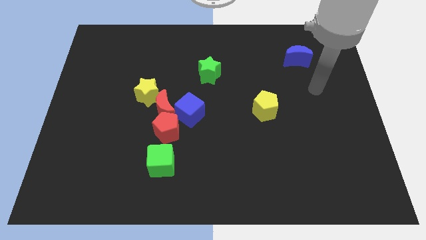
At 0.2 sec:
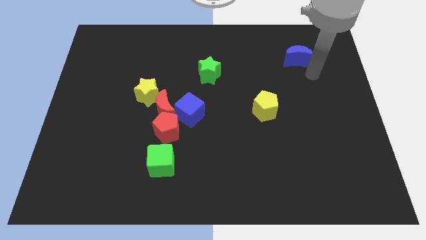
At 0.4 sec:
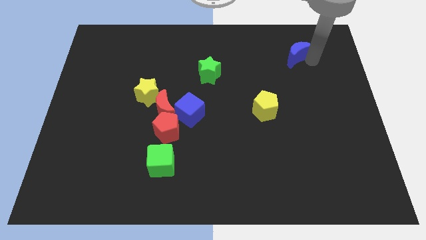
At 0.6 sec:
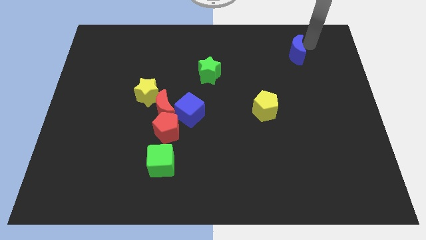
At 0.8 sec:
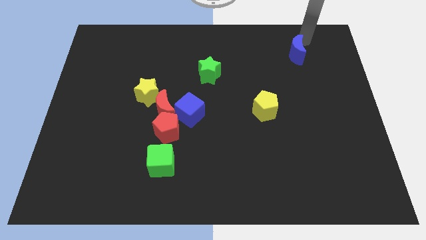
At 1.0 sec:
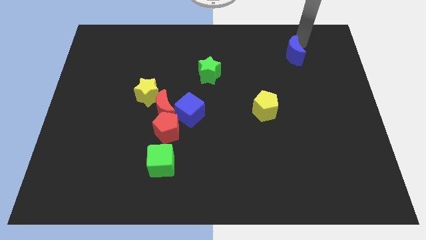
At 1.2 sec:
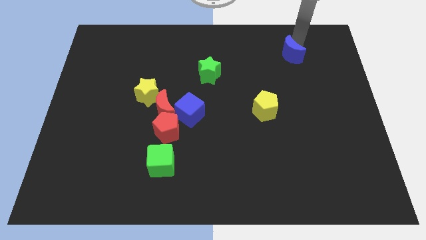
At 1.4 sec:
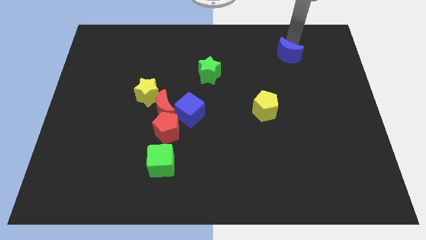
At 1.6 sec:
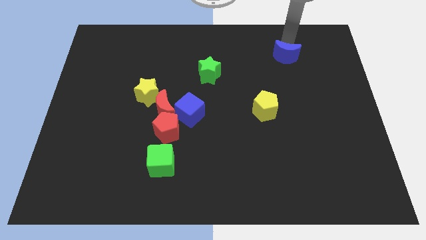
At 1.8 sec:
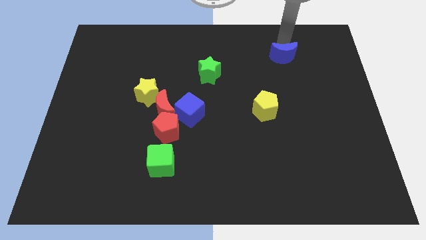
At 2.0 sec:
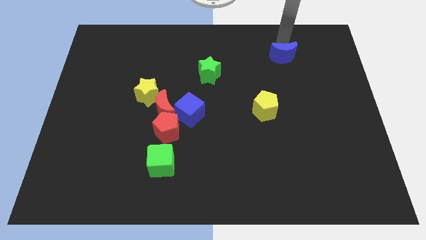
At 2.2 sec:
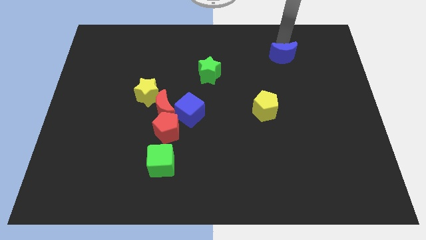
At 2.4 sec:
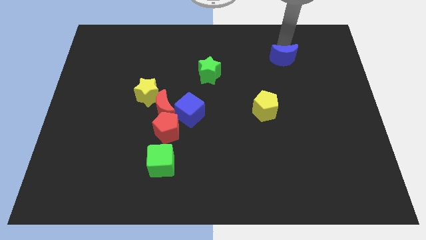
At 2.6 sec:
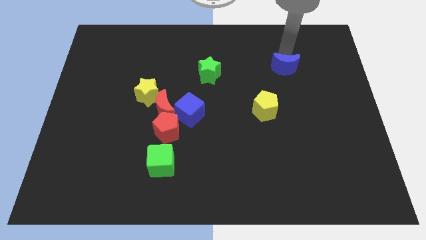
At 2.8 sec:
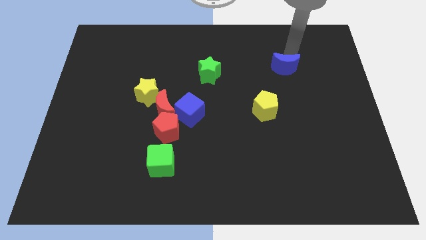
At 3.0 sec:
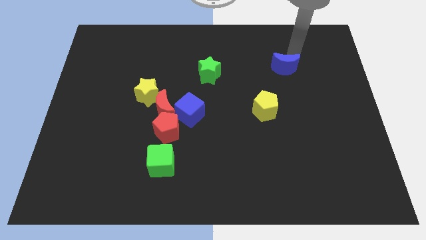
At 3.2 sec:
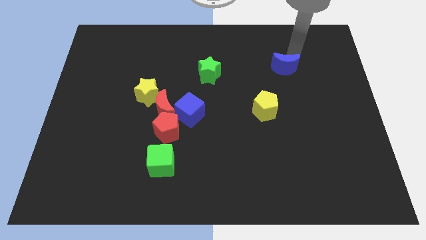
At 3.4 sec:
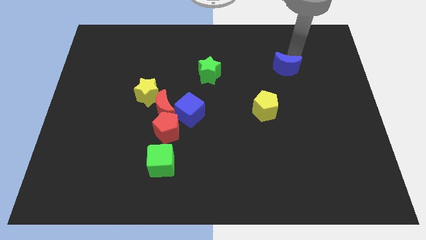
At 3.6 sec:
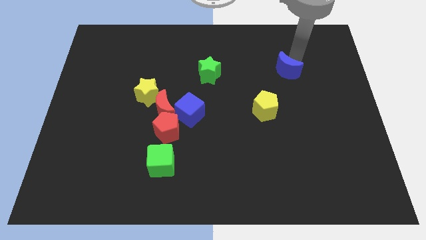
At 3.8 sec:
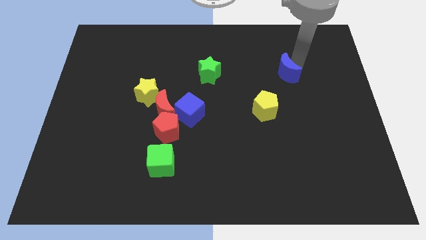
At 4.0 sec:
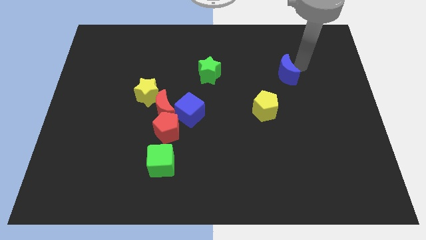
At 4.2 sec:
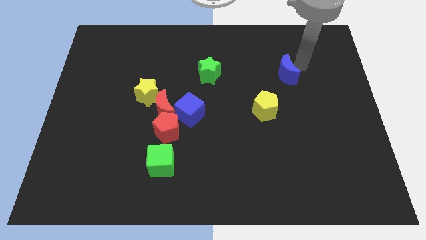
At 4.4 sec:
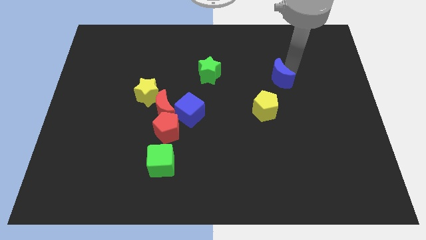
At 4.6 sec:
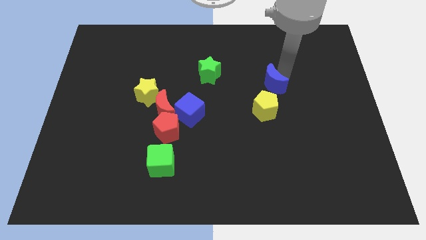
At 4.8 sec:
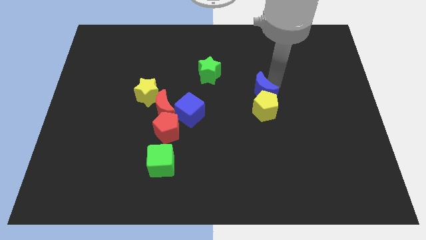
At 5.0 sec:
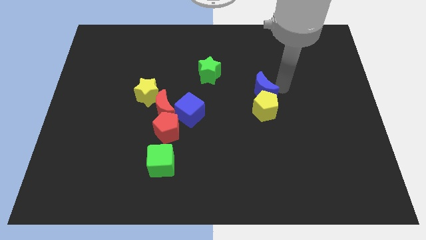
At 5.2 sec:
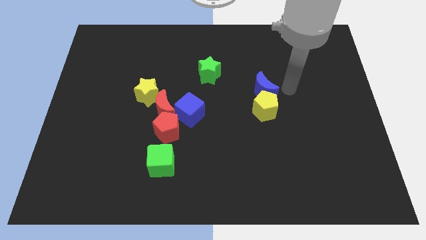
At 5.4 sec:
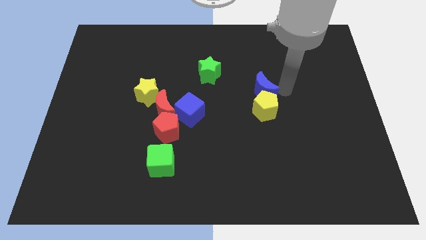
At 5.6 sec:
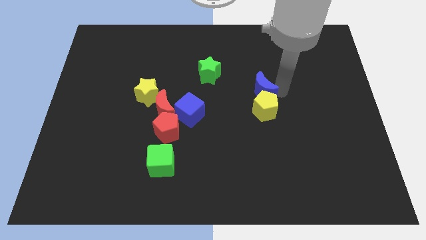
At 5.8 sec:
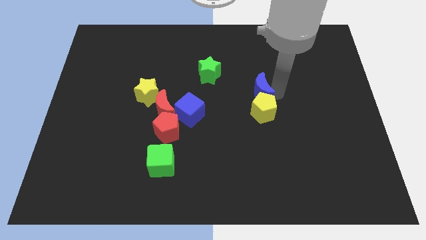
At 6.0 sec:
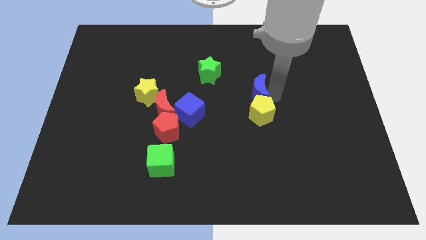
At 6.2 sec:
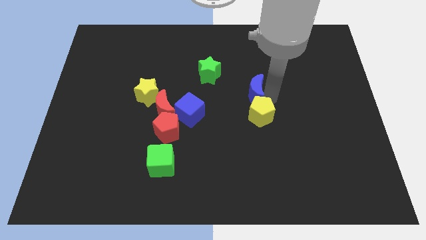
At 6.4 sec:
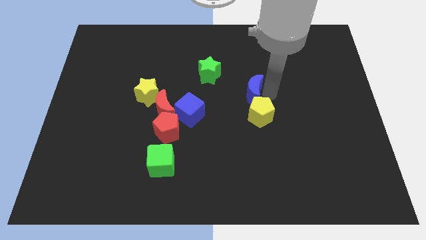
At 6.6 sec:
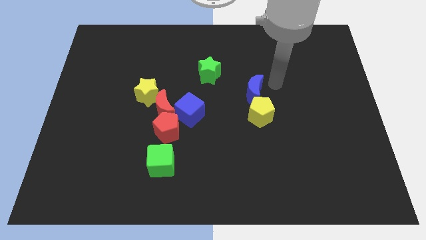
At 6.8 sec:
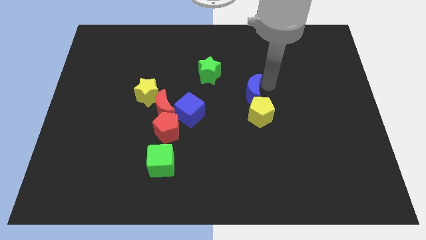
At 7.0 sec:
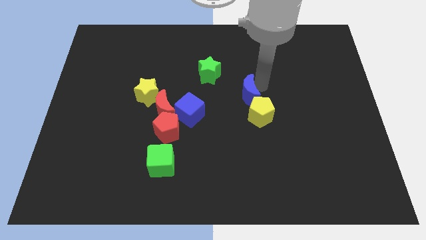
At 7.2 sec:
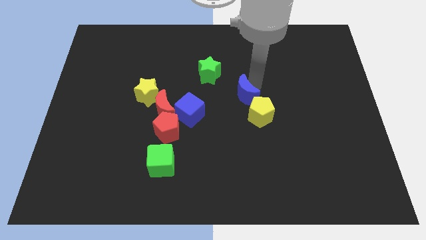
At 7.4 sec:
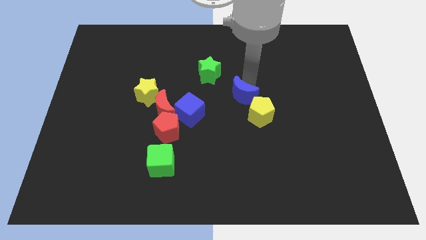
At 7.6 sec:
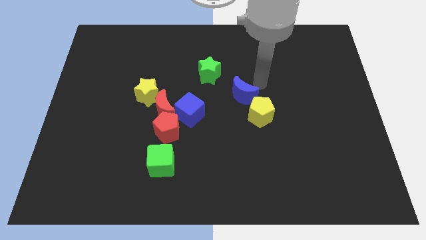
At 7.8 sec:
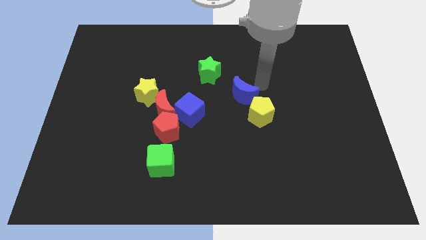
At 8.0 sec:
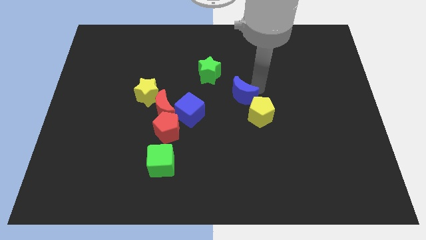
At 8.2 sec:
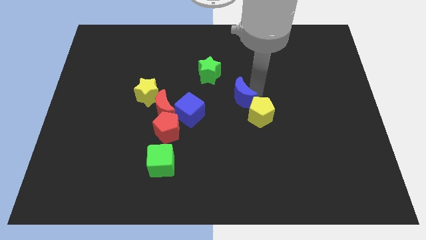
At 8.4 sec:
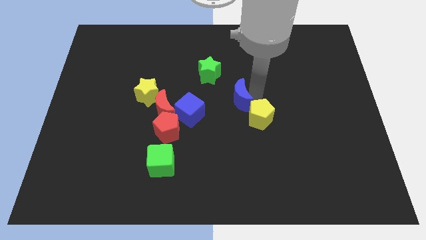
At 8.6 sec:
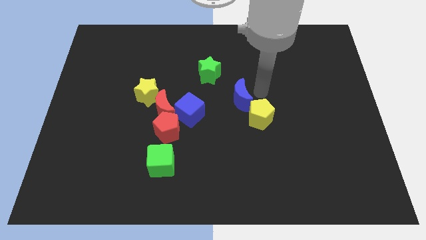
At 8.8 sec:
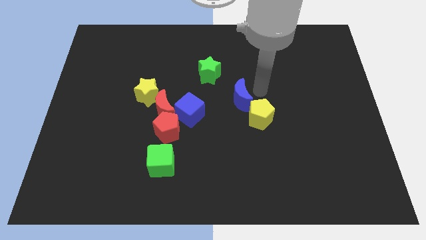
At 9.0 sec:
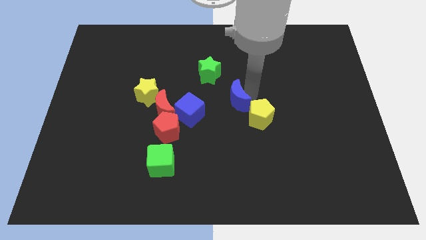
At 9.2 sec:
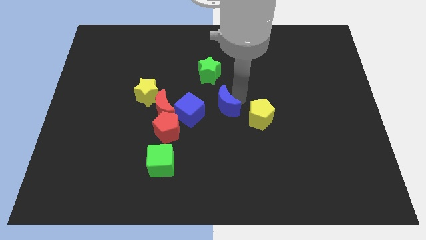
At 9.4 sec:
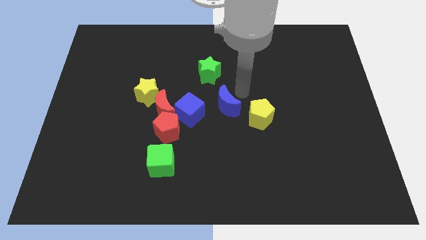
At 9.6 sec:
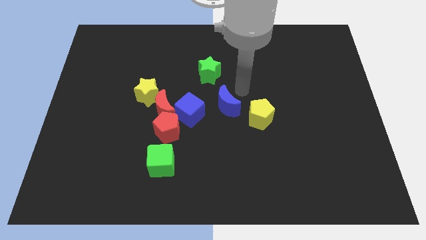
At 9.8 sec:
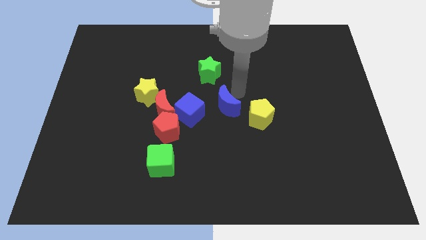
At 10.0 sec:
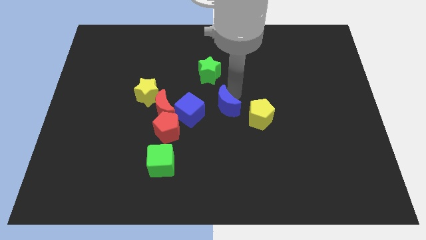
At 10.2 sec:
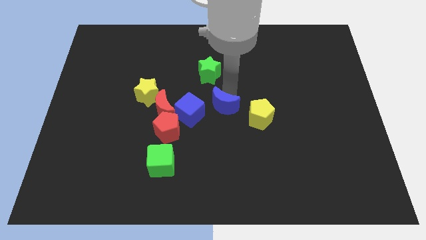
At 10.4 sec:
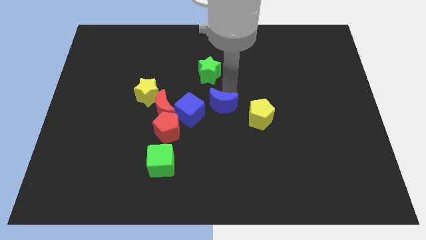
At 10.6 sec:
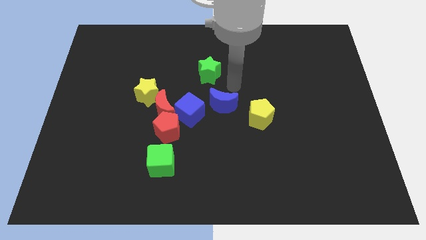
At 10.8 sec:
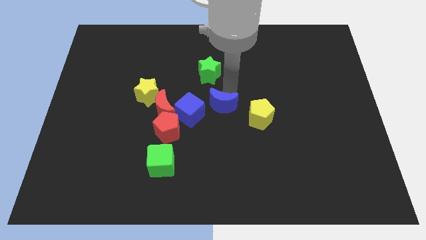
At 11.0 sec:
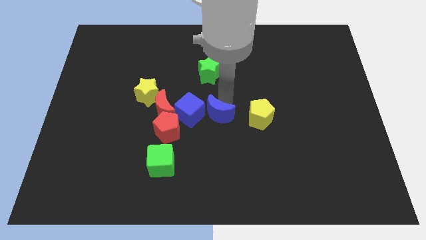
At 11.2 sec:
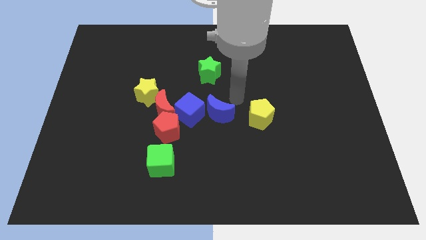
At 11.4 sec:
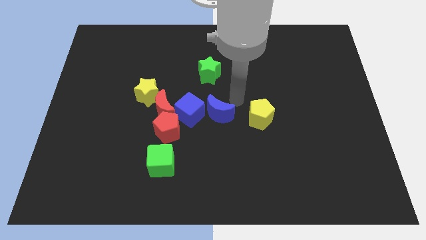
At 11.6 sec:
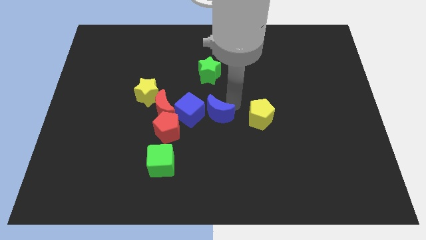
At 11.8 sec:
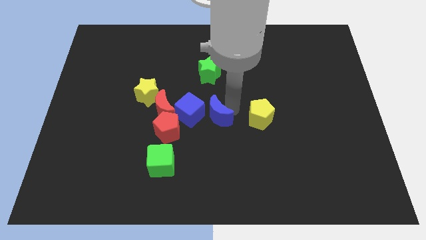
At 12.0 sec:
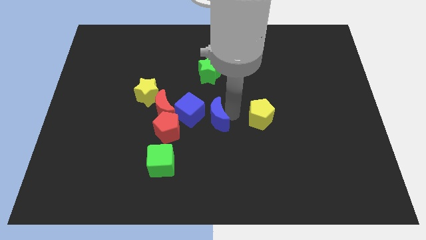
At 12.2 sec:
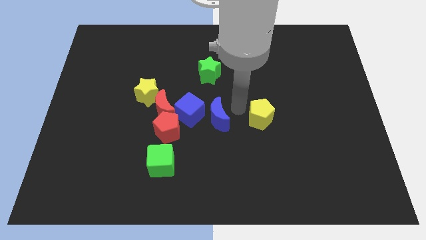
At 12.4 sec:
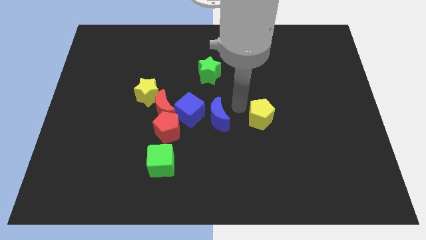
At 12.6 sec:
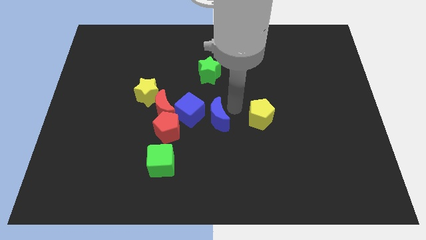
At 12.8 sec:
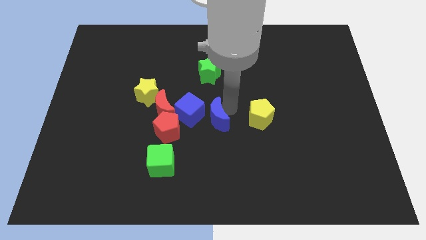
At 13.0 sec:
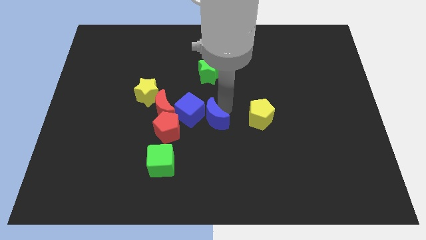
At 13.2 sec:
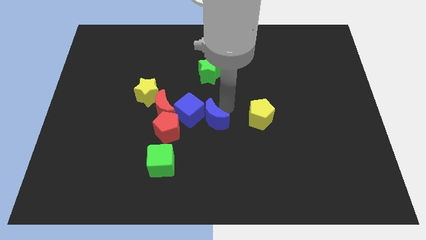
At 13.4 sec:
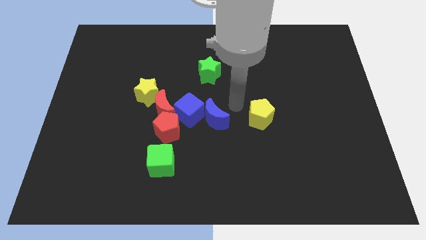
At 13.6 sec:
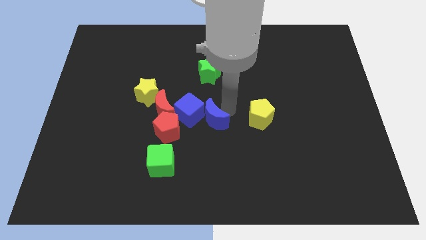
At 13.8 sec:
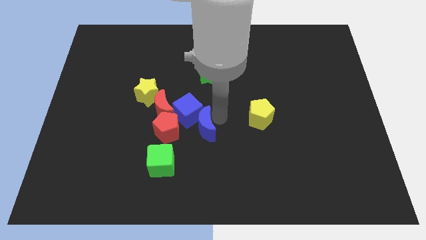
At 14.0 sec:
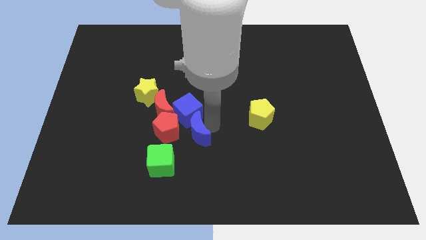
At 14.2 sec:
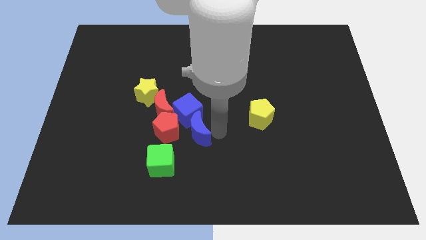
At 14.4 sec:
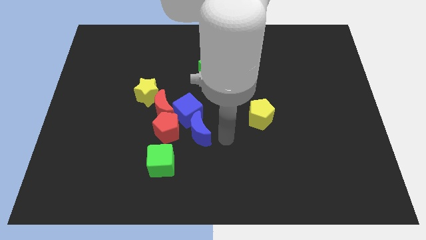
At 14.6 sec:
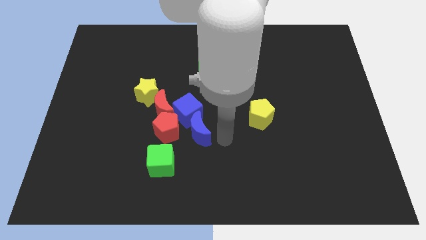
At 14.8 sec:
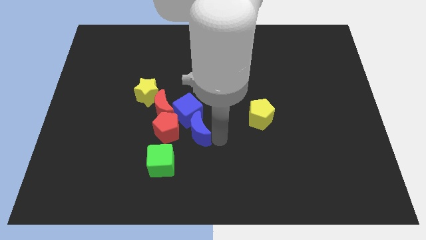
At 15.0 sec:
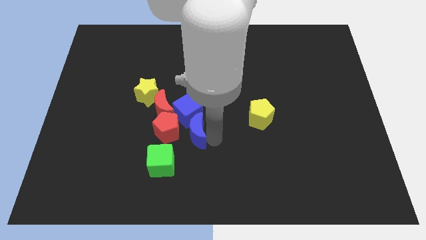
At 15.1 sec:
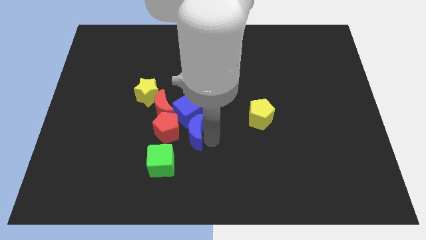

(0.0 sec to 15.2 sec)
slide the blue moon close to the red pentagon
